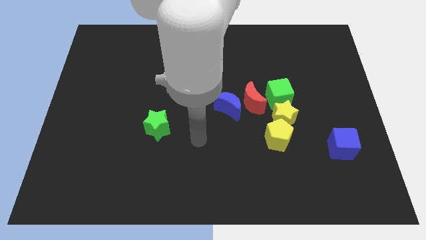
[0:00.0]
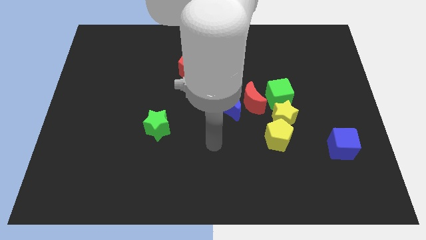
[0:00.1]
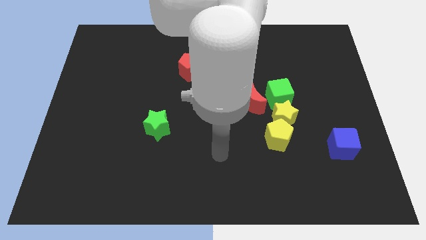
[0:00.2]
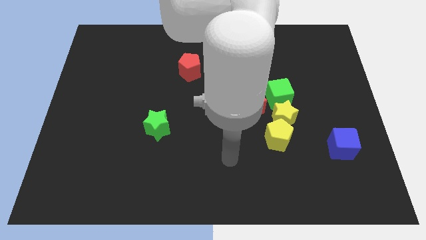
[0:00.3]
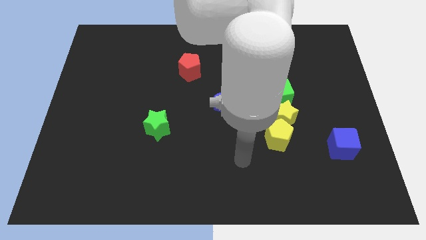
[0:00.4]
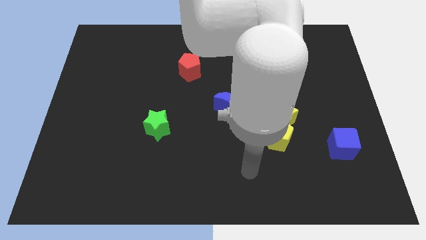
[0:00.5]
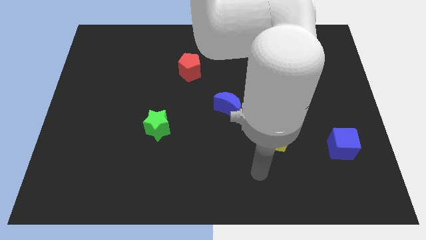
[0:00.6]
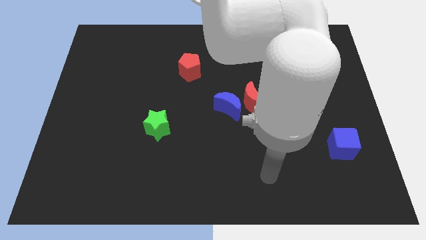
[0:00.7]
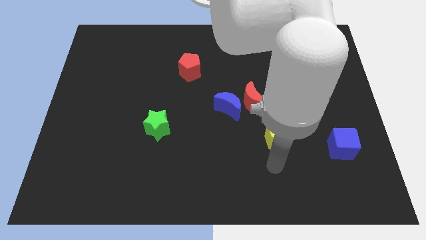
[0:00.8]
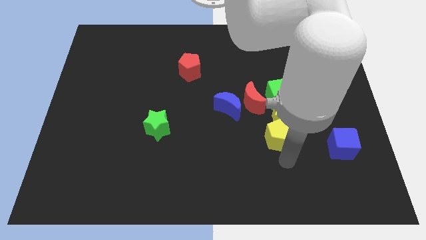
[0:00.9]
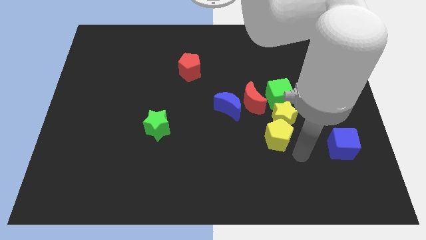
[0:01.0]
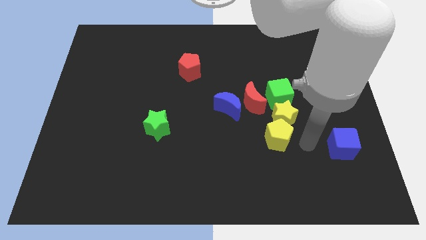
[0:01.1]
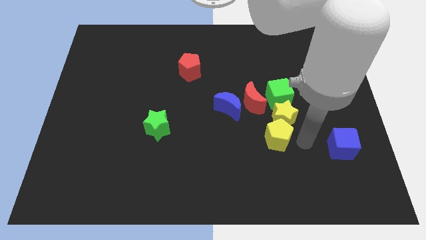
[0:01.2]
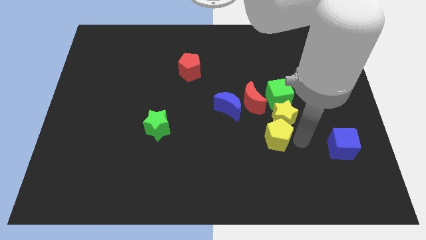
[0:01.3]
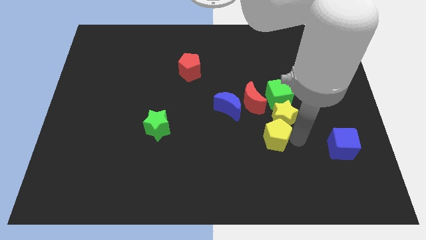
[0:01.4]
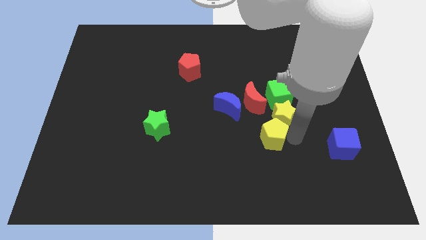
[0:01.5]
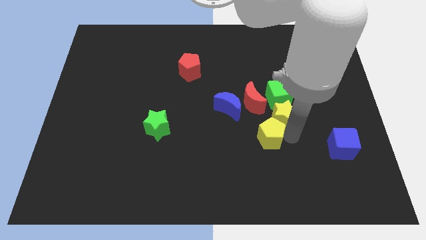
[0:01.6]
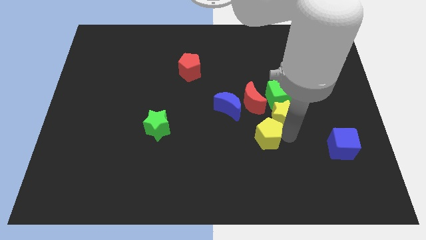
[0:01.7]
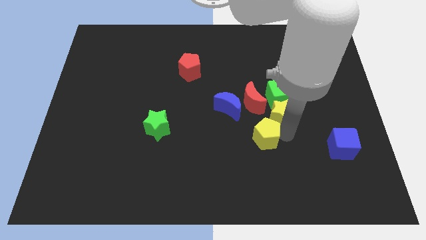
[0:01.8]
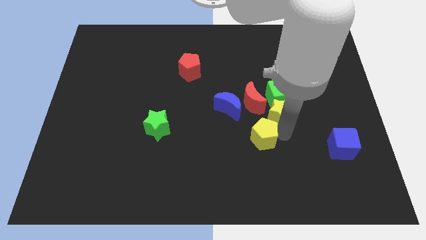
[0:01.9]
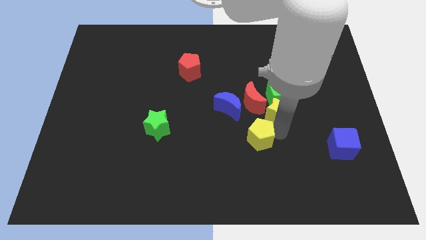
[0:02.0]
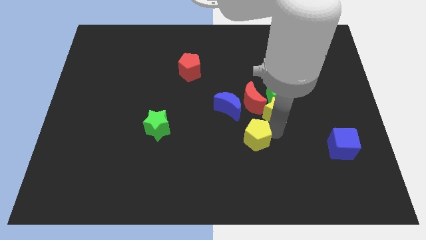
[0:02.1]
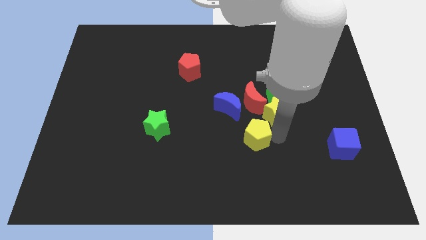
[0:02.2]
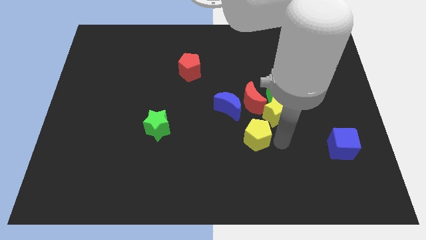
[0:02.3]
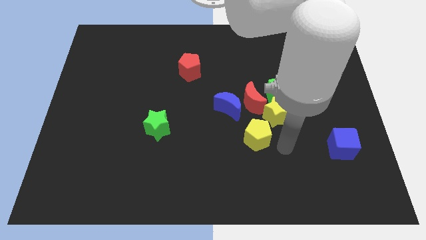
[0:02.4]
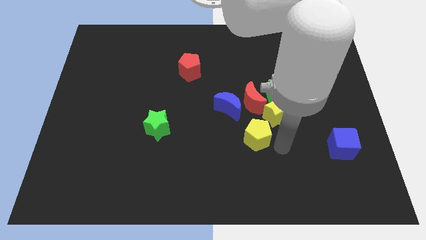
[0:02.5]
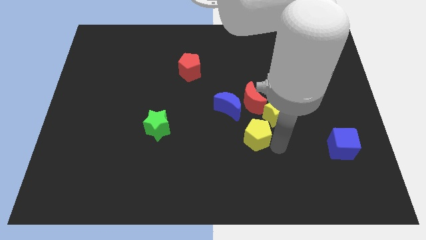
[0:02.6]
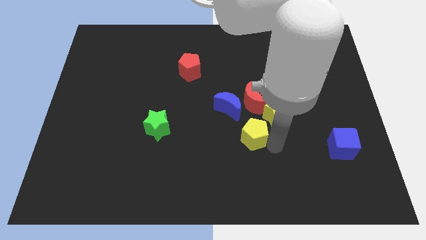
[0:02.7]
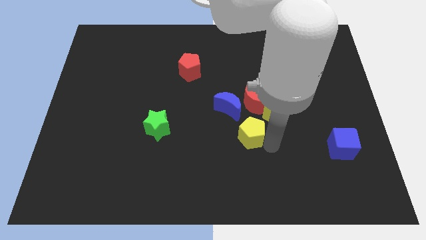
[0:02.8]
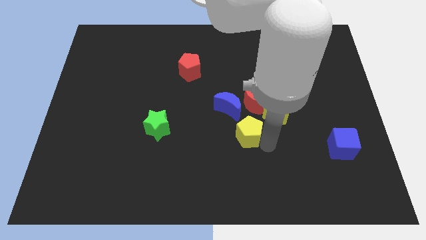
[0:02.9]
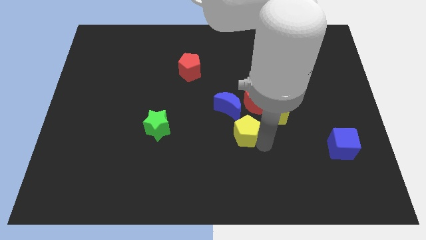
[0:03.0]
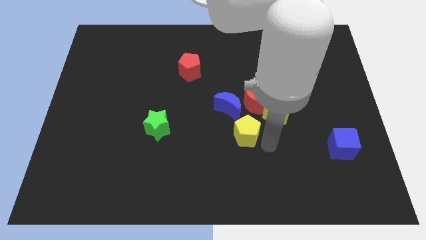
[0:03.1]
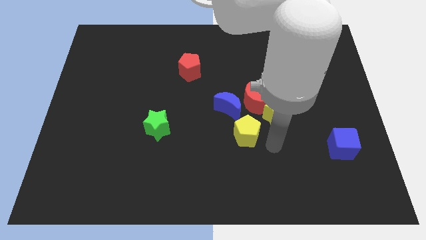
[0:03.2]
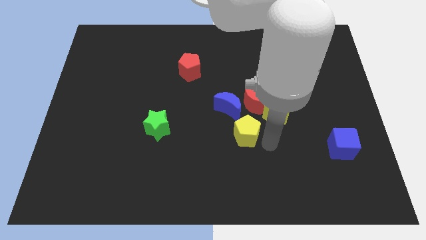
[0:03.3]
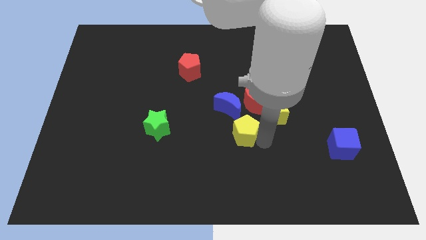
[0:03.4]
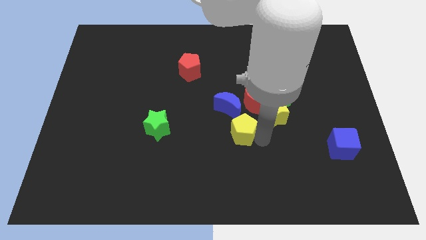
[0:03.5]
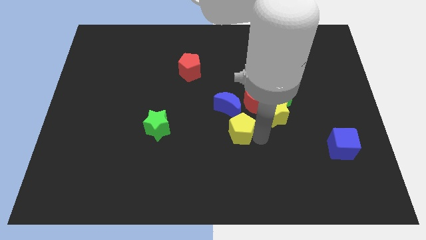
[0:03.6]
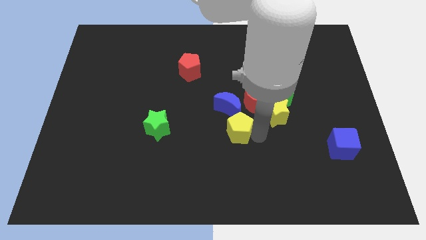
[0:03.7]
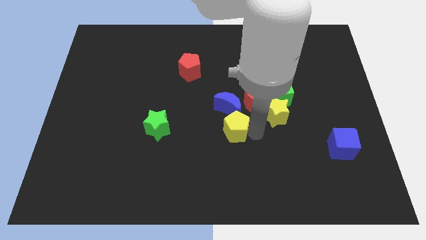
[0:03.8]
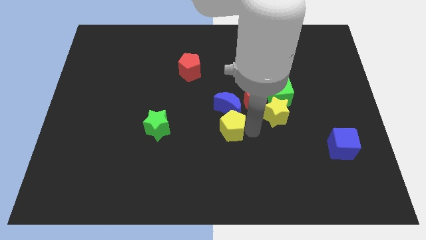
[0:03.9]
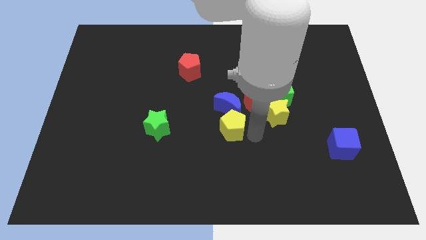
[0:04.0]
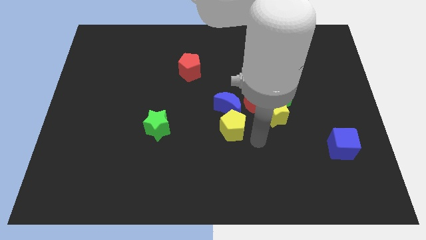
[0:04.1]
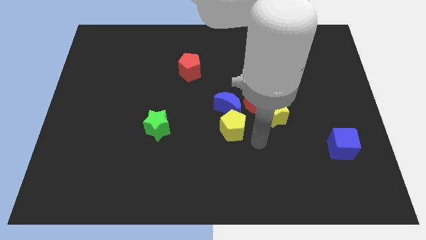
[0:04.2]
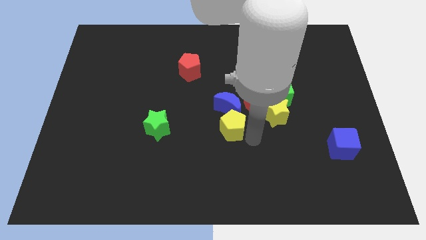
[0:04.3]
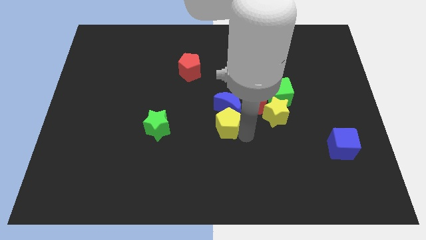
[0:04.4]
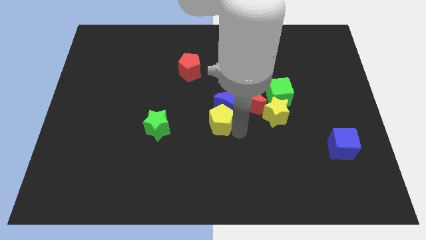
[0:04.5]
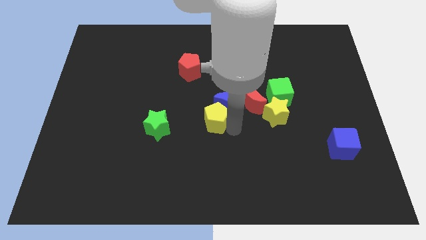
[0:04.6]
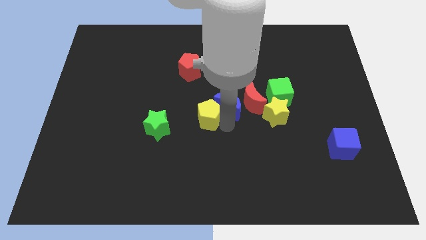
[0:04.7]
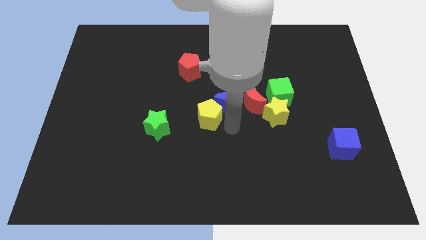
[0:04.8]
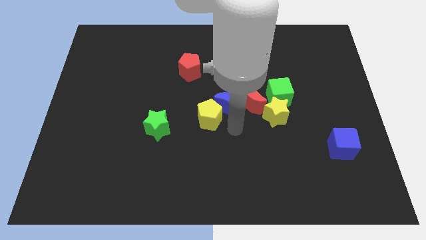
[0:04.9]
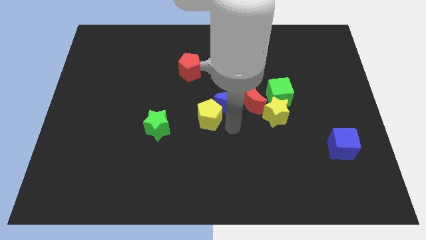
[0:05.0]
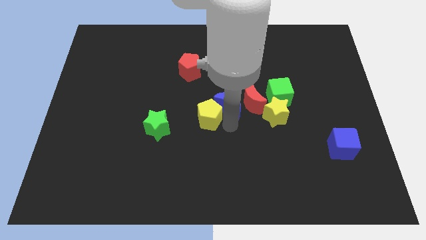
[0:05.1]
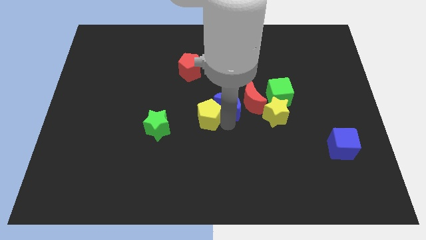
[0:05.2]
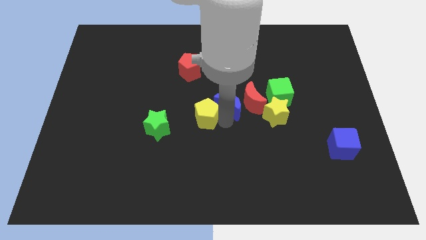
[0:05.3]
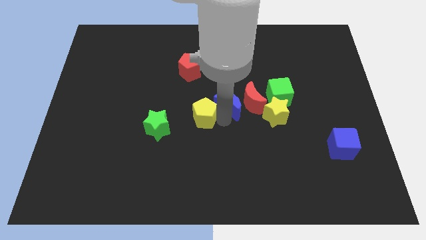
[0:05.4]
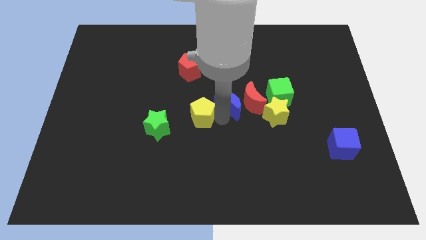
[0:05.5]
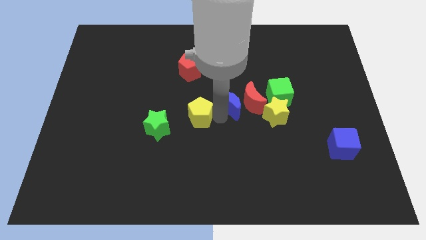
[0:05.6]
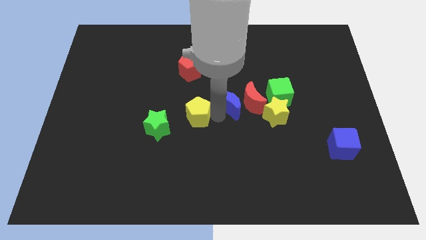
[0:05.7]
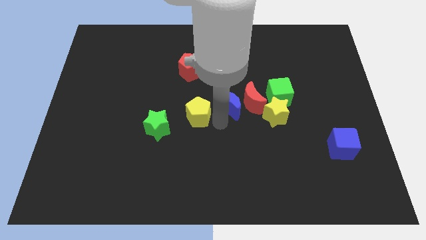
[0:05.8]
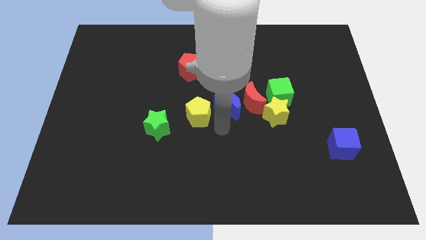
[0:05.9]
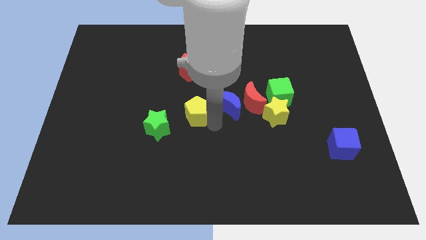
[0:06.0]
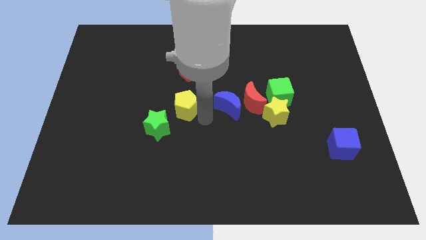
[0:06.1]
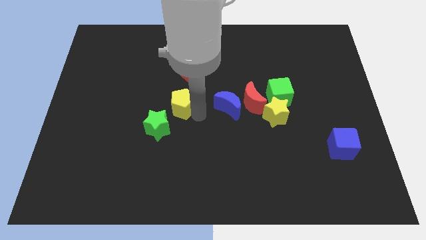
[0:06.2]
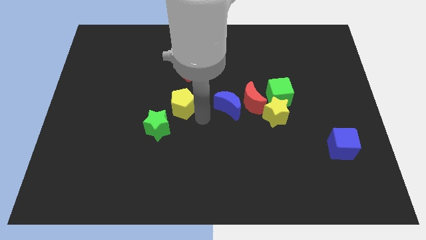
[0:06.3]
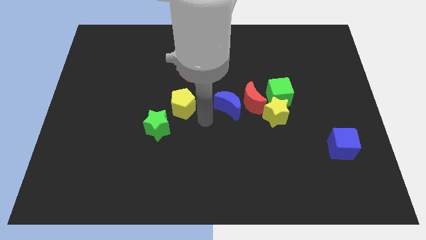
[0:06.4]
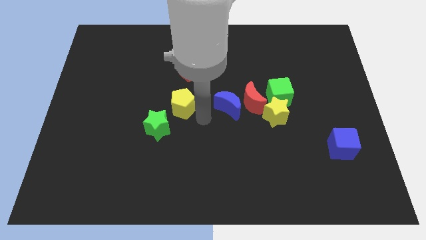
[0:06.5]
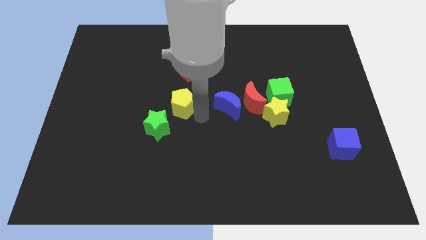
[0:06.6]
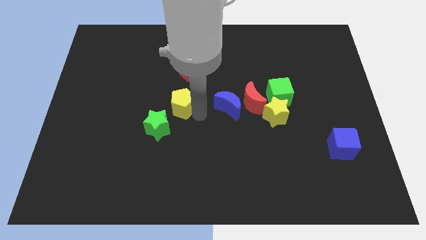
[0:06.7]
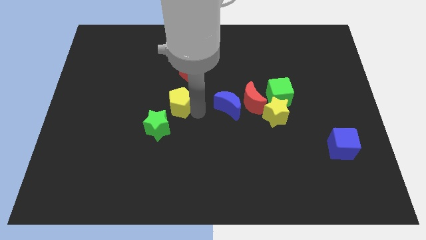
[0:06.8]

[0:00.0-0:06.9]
slide the yellow pentagon above the green star
